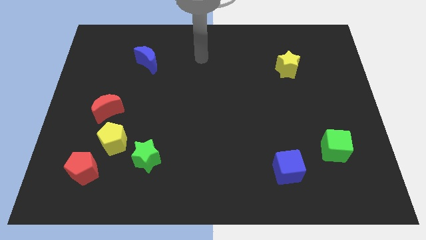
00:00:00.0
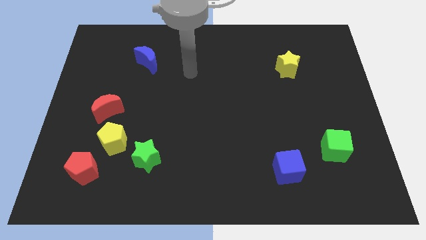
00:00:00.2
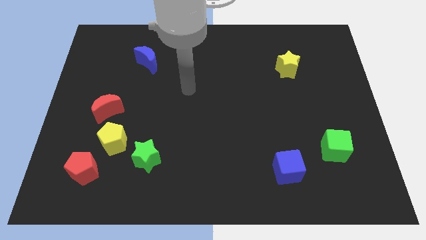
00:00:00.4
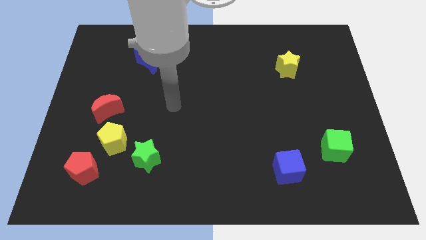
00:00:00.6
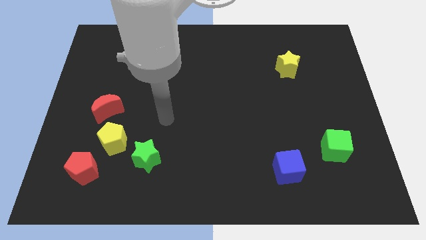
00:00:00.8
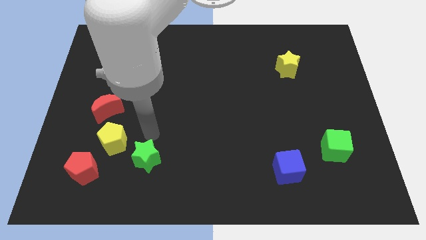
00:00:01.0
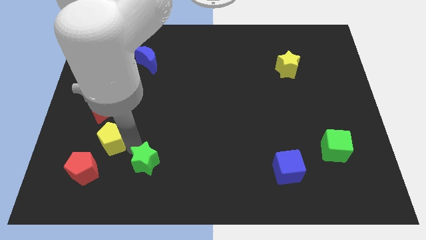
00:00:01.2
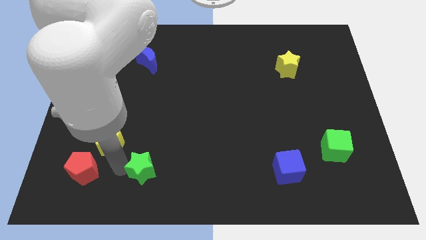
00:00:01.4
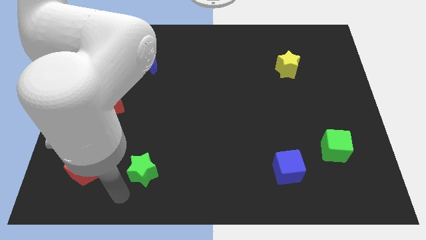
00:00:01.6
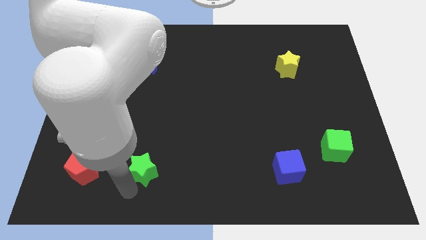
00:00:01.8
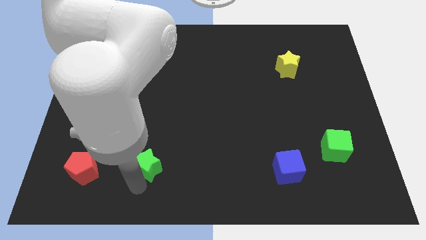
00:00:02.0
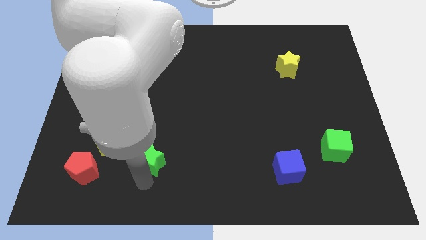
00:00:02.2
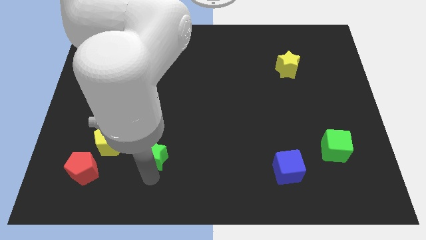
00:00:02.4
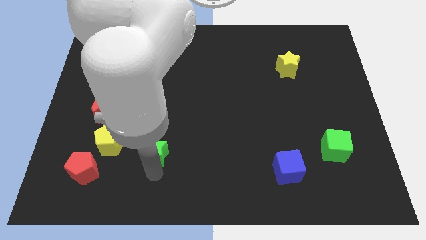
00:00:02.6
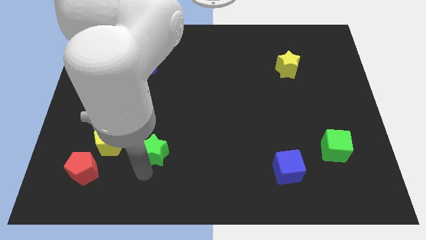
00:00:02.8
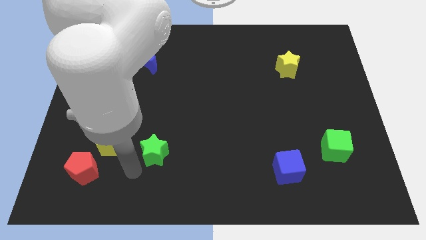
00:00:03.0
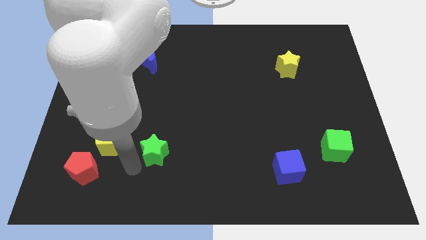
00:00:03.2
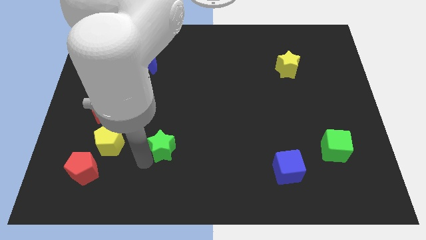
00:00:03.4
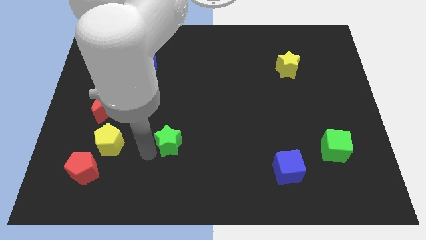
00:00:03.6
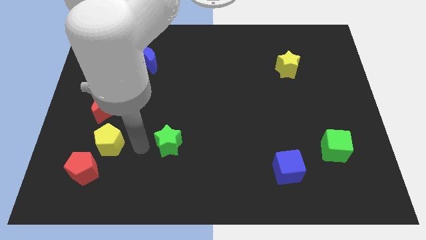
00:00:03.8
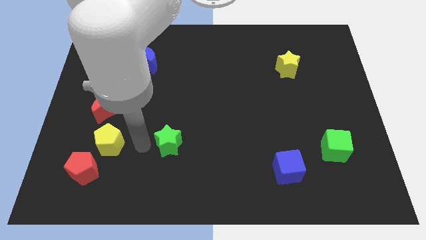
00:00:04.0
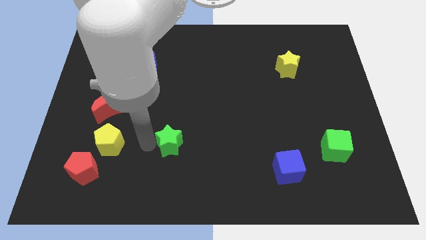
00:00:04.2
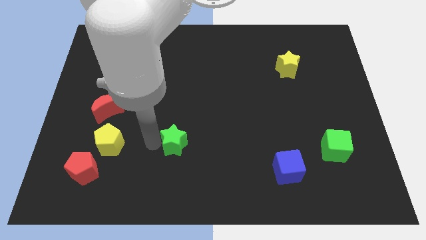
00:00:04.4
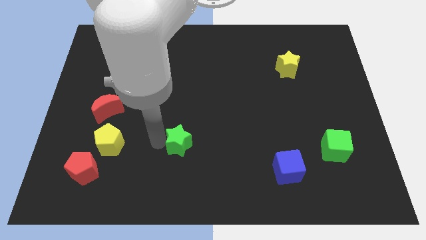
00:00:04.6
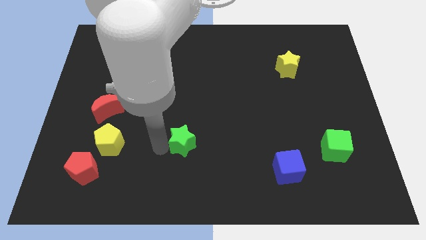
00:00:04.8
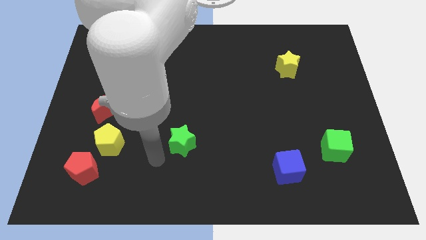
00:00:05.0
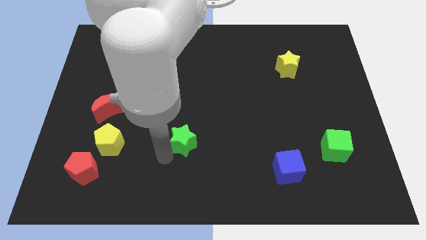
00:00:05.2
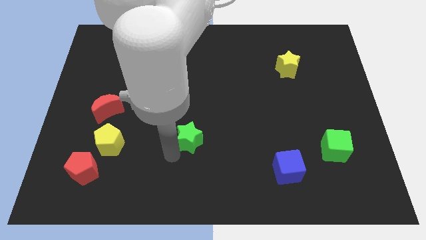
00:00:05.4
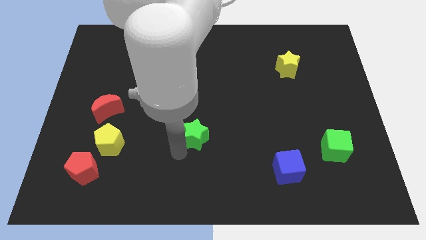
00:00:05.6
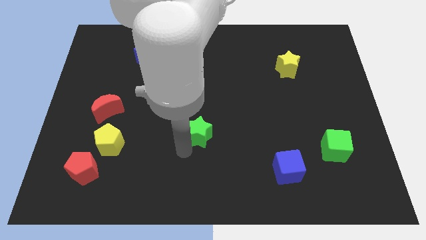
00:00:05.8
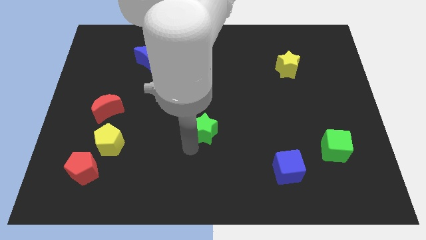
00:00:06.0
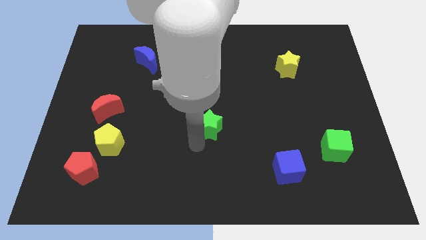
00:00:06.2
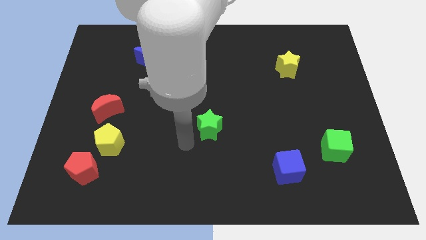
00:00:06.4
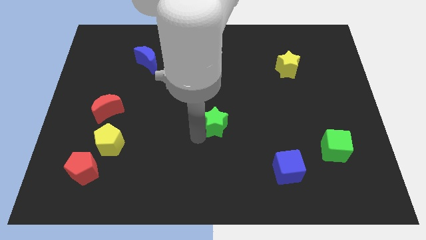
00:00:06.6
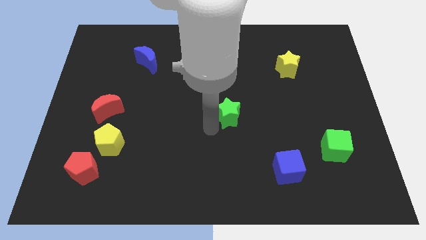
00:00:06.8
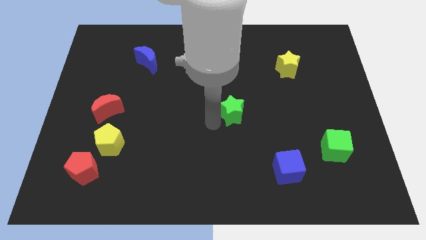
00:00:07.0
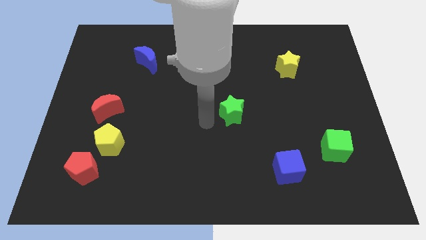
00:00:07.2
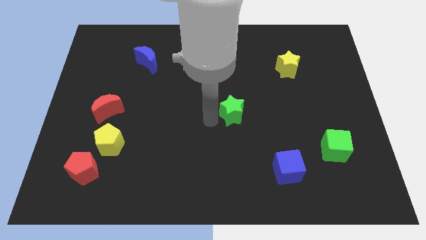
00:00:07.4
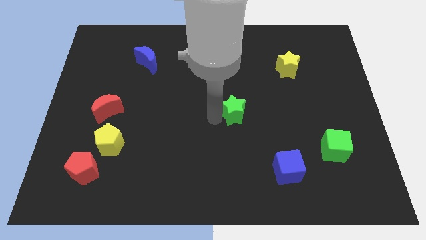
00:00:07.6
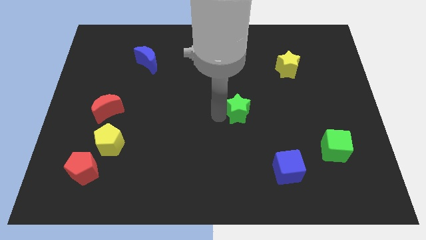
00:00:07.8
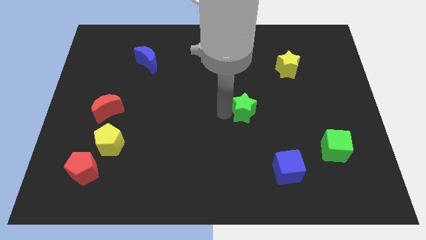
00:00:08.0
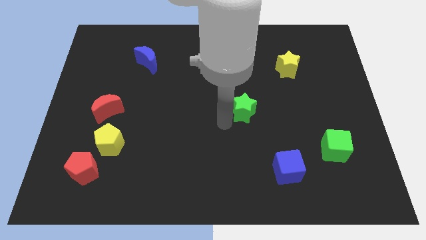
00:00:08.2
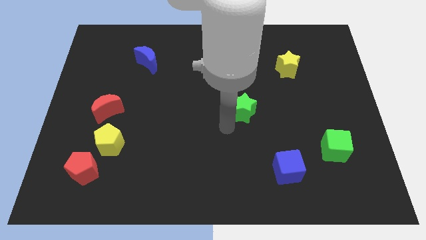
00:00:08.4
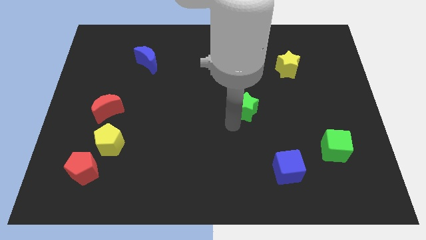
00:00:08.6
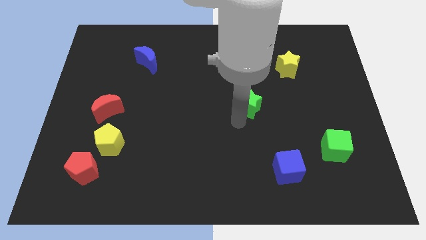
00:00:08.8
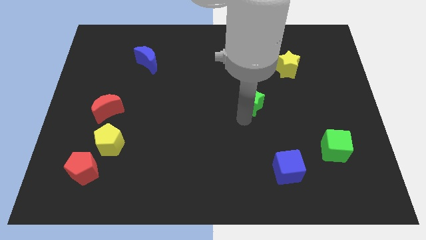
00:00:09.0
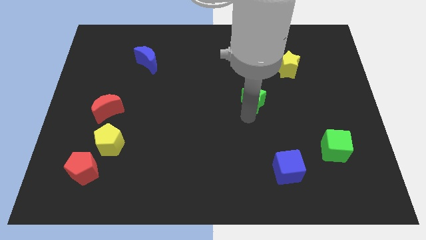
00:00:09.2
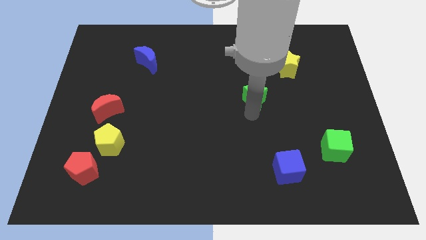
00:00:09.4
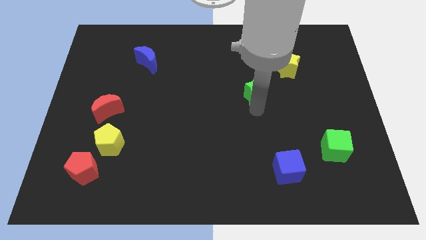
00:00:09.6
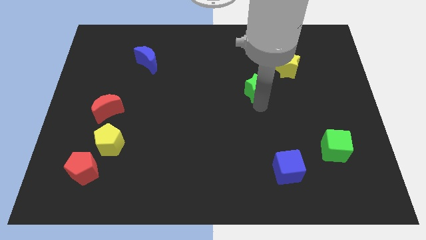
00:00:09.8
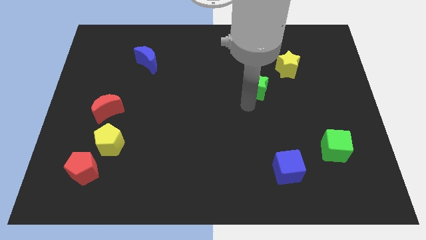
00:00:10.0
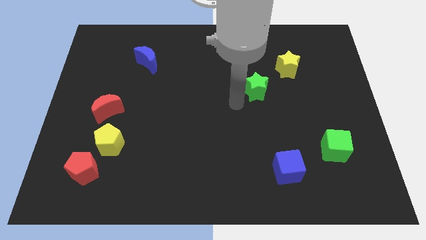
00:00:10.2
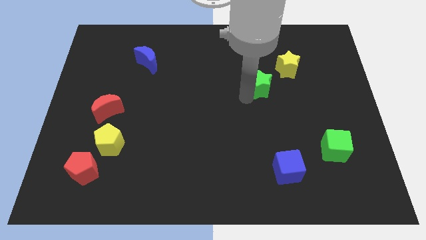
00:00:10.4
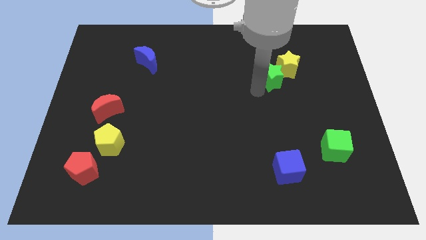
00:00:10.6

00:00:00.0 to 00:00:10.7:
move the green star next to the yellow star

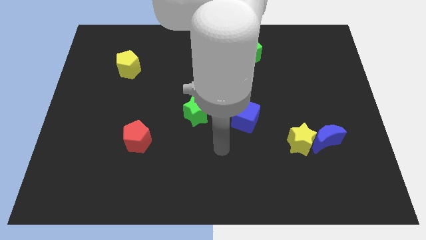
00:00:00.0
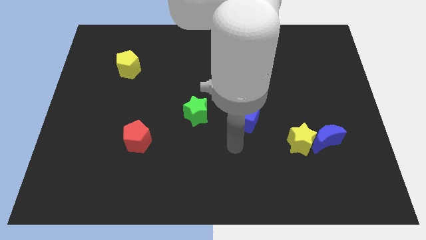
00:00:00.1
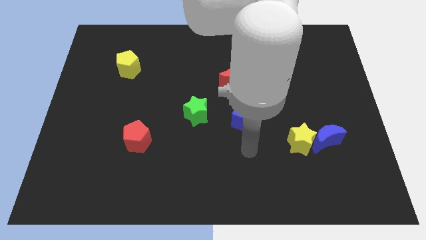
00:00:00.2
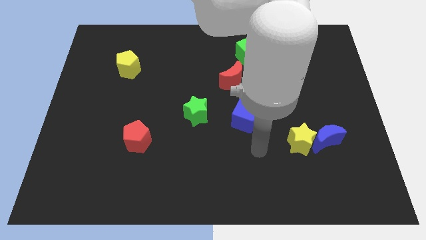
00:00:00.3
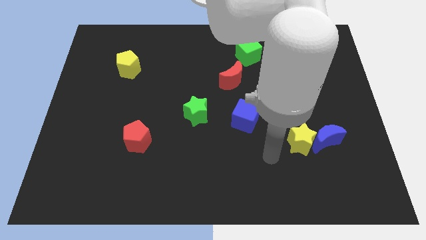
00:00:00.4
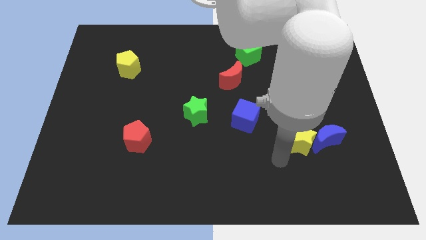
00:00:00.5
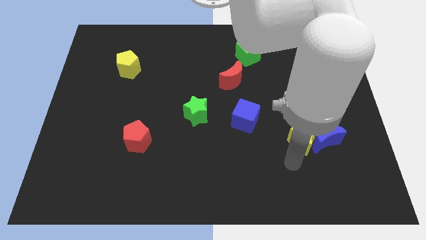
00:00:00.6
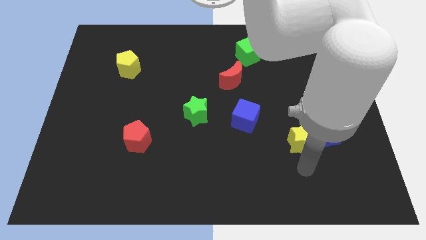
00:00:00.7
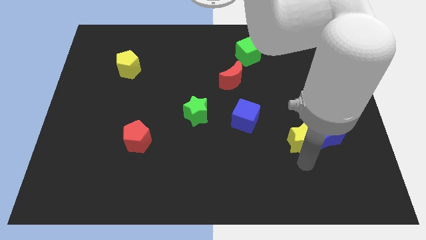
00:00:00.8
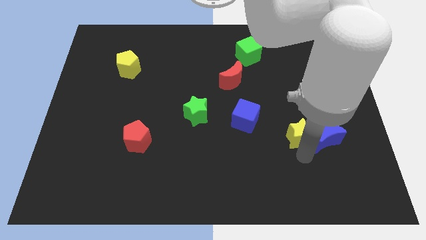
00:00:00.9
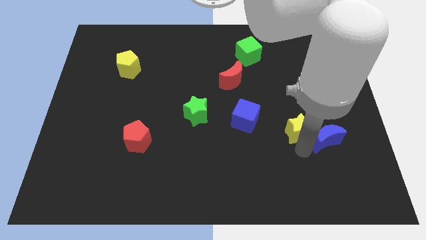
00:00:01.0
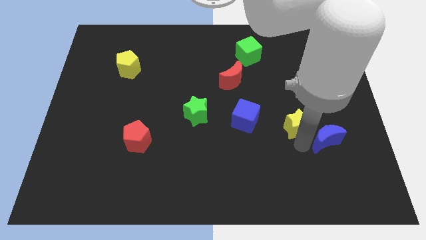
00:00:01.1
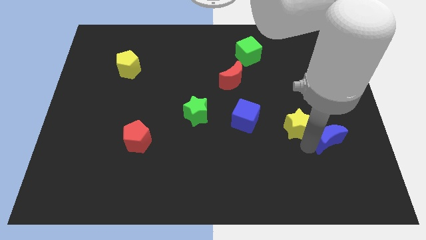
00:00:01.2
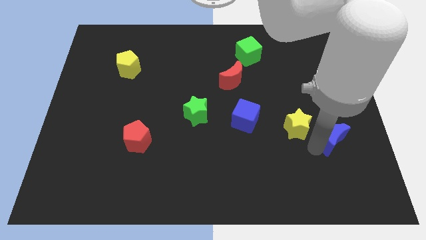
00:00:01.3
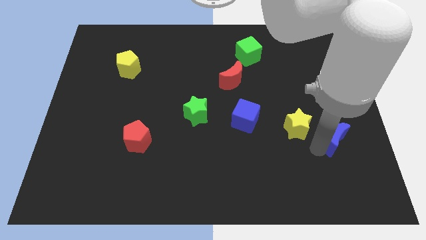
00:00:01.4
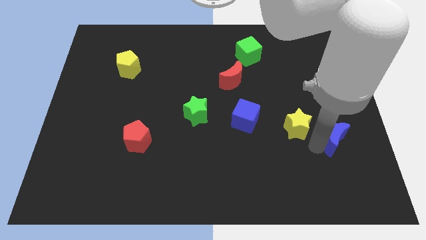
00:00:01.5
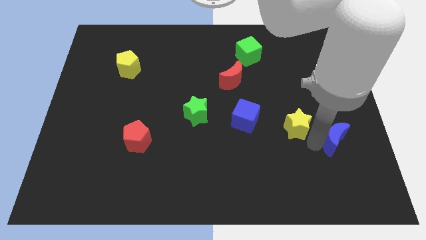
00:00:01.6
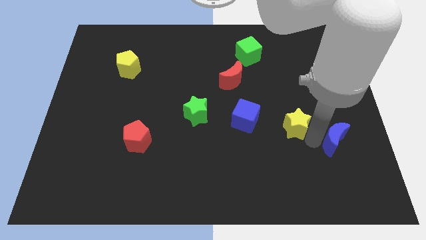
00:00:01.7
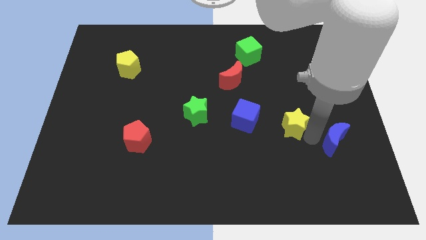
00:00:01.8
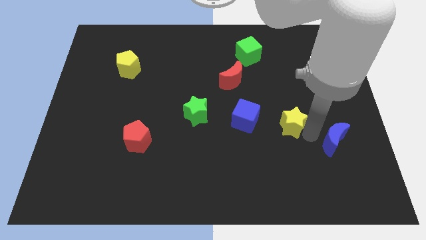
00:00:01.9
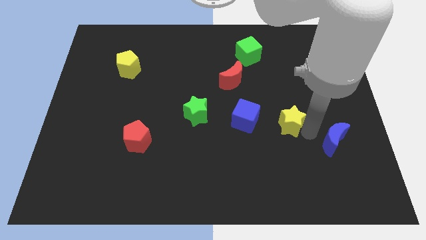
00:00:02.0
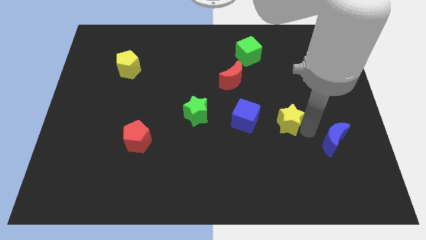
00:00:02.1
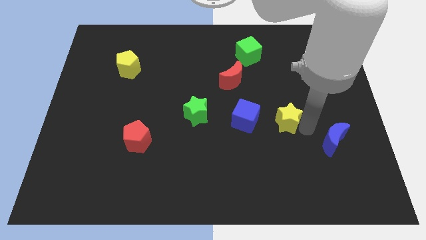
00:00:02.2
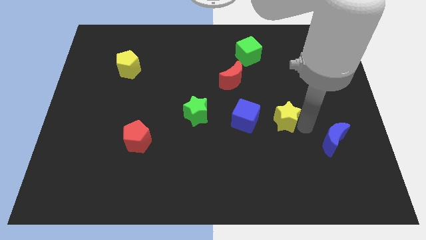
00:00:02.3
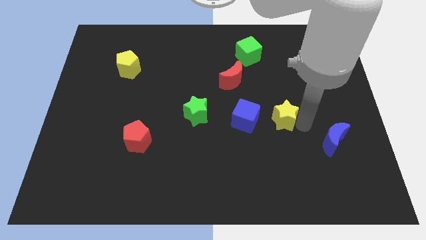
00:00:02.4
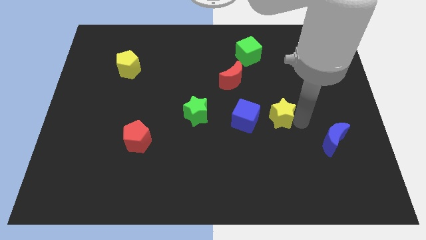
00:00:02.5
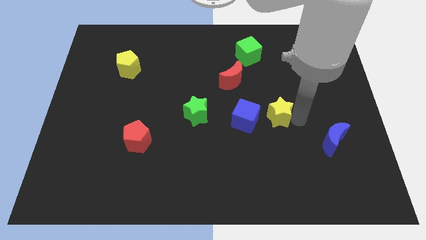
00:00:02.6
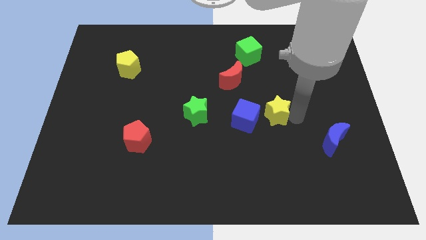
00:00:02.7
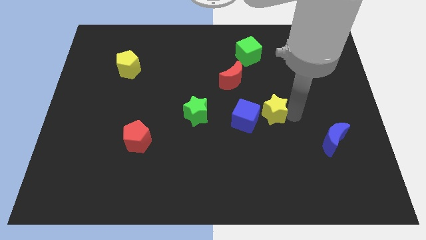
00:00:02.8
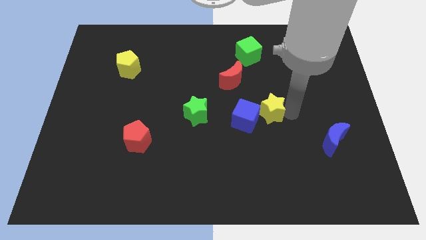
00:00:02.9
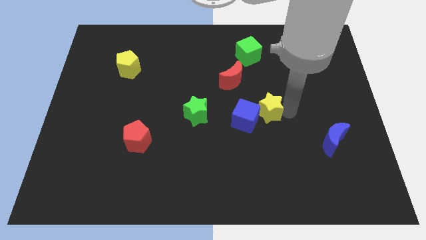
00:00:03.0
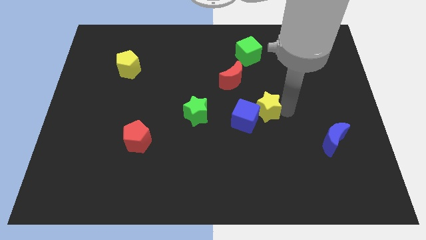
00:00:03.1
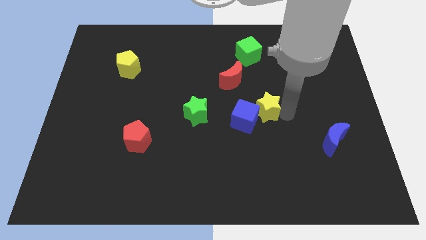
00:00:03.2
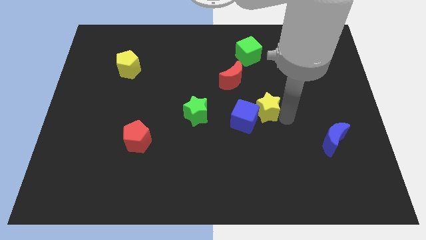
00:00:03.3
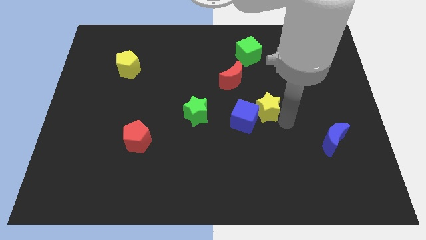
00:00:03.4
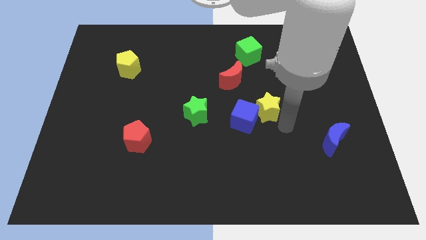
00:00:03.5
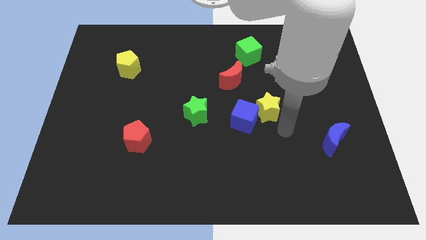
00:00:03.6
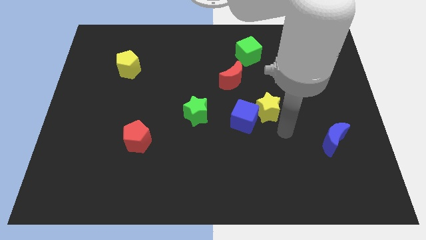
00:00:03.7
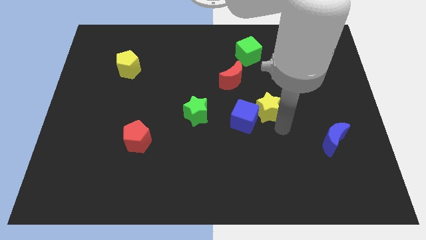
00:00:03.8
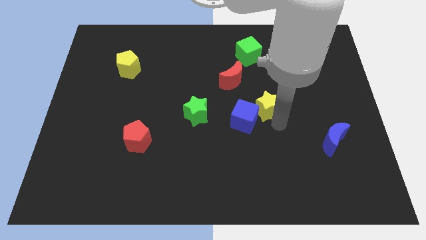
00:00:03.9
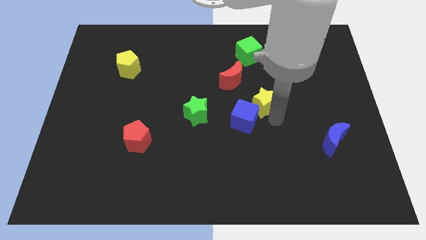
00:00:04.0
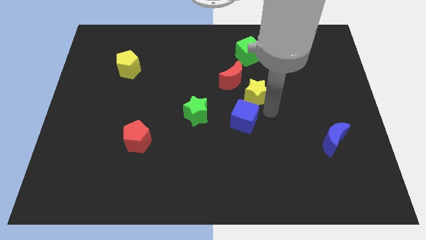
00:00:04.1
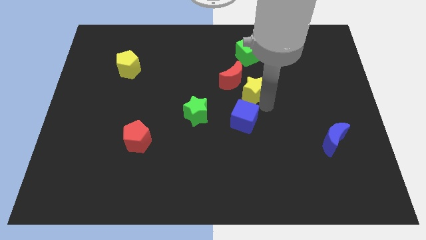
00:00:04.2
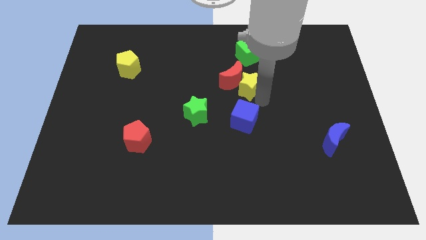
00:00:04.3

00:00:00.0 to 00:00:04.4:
move the yellow star close to the red moon
